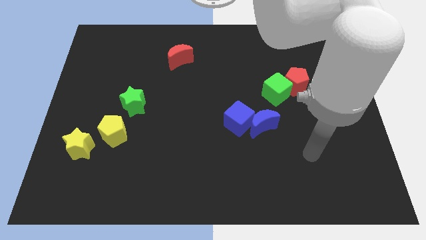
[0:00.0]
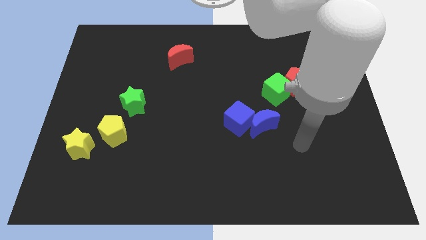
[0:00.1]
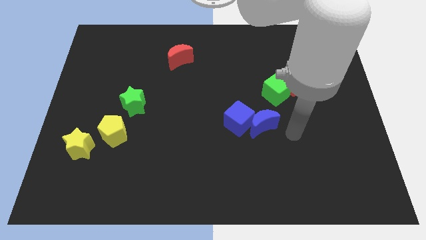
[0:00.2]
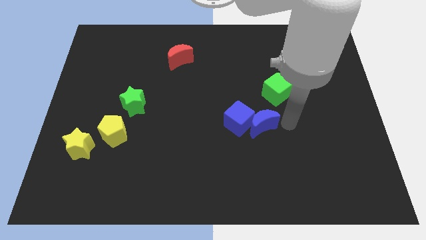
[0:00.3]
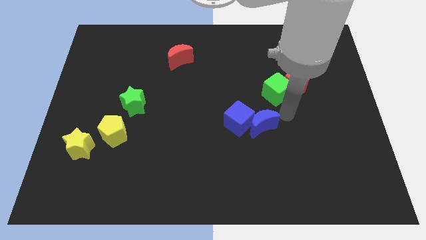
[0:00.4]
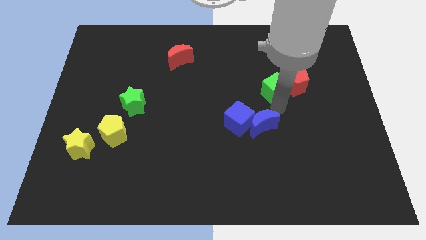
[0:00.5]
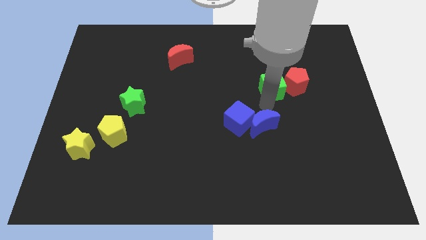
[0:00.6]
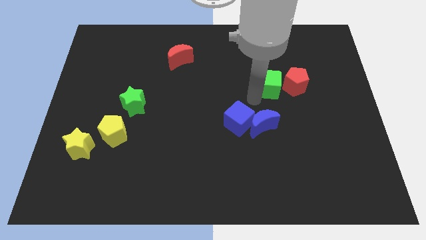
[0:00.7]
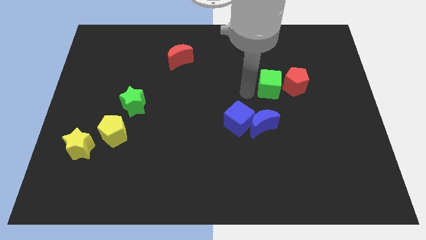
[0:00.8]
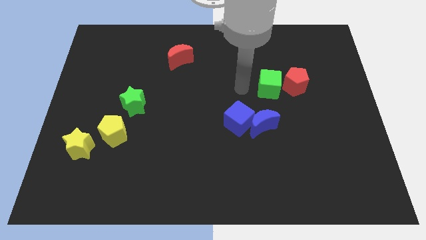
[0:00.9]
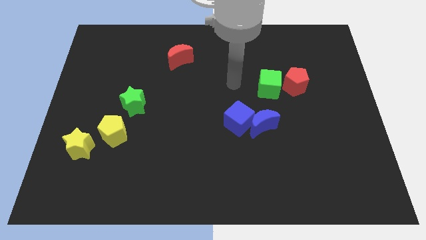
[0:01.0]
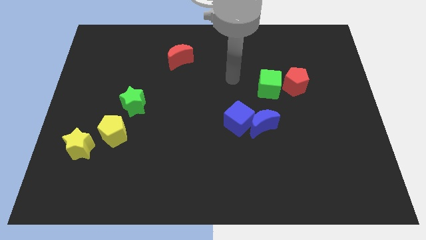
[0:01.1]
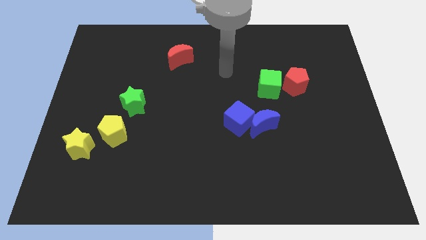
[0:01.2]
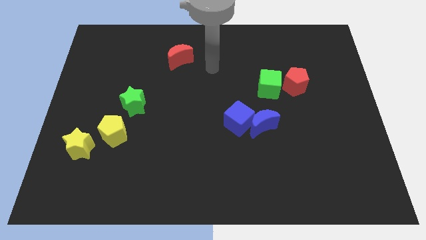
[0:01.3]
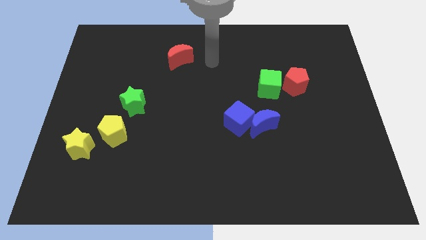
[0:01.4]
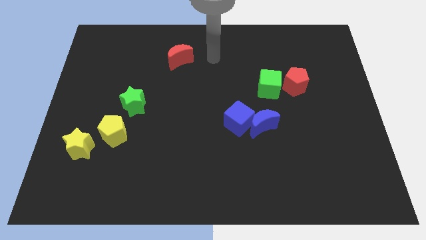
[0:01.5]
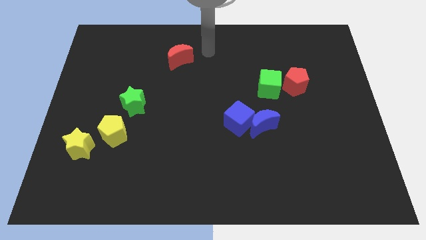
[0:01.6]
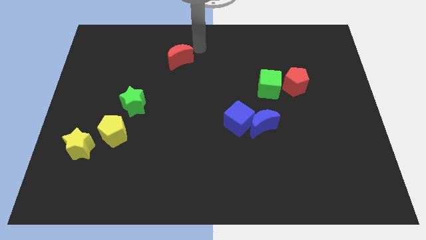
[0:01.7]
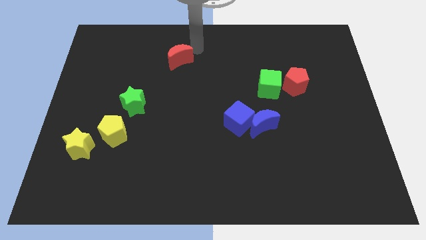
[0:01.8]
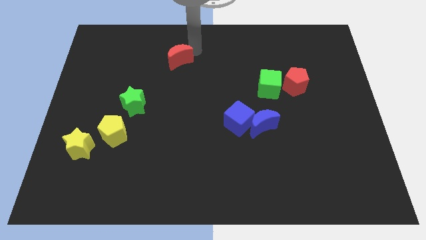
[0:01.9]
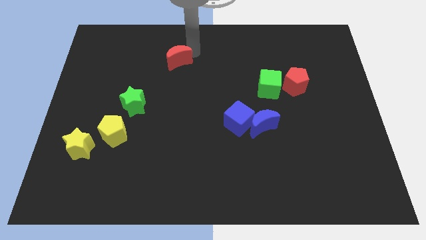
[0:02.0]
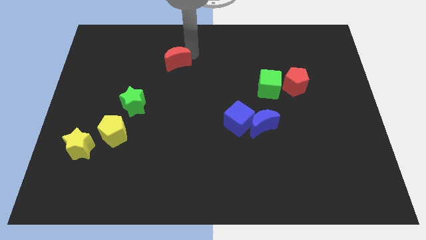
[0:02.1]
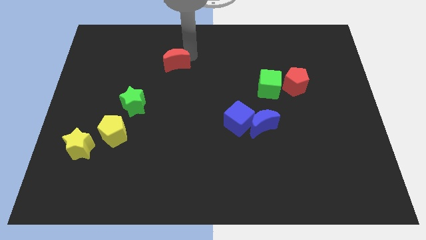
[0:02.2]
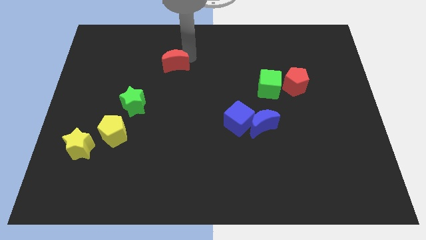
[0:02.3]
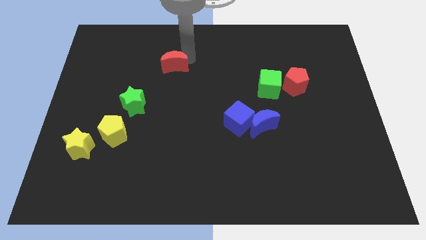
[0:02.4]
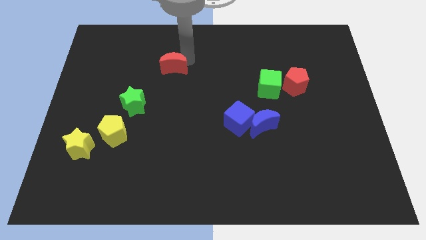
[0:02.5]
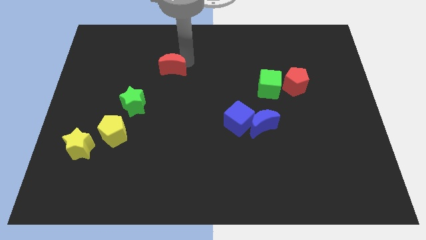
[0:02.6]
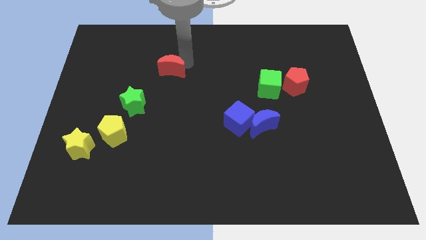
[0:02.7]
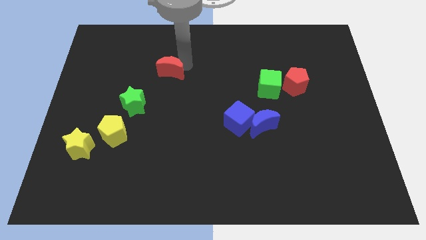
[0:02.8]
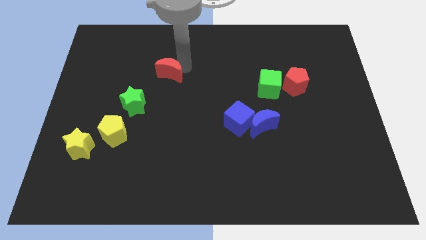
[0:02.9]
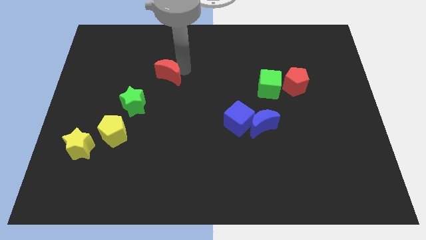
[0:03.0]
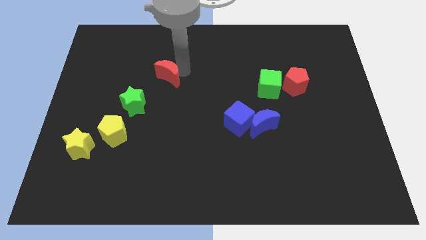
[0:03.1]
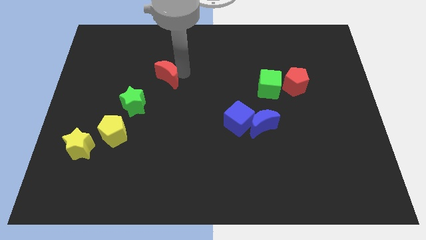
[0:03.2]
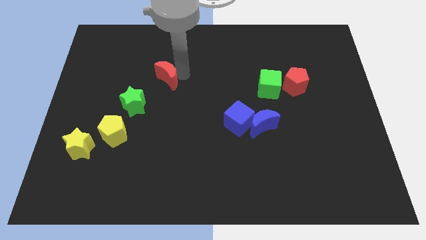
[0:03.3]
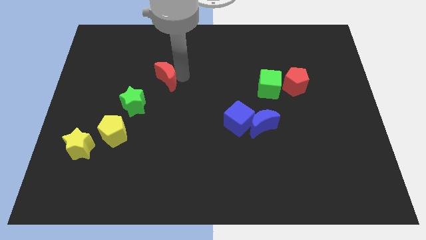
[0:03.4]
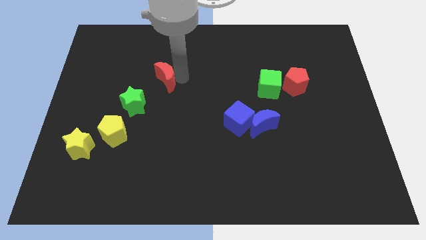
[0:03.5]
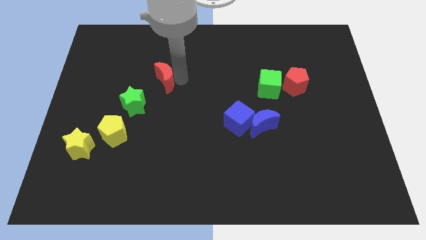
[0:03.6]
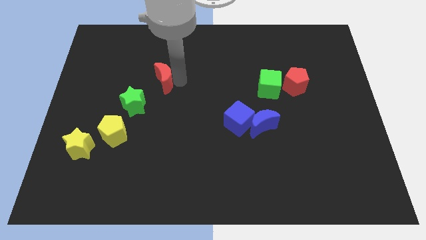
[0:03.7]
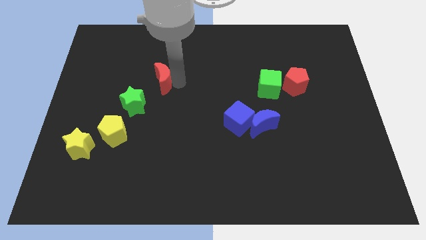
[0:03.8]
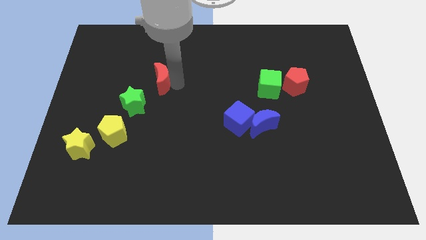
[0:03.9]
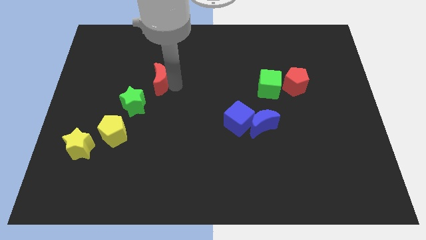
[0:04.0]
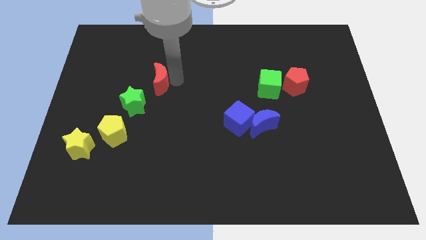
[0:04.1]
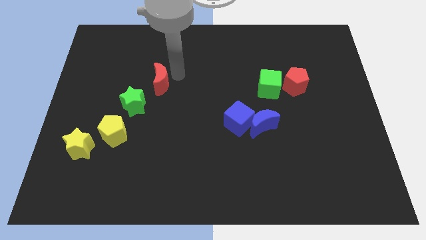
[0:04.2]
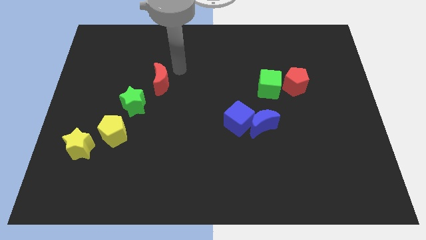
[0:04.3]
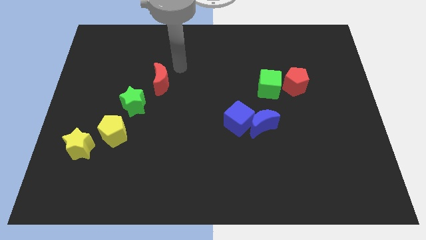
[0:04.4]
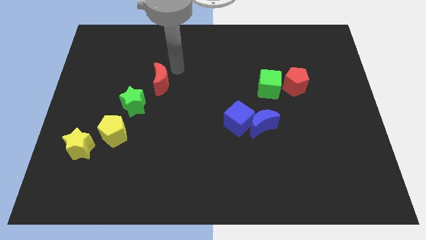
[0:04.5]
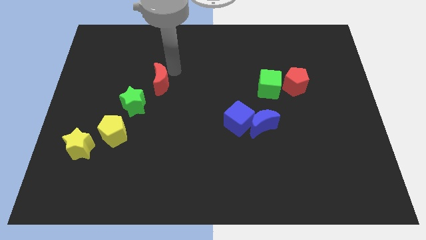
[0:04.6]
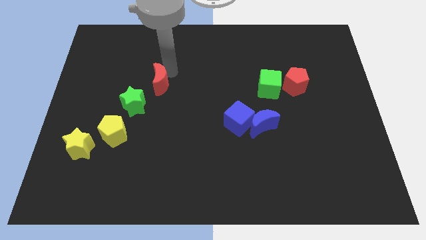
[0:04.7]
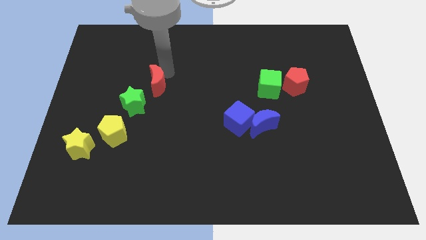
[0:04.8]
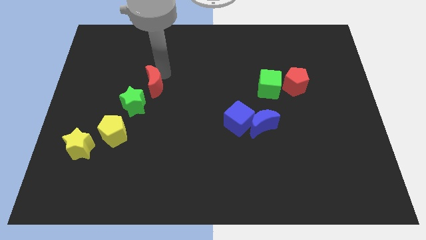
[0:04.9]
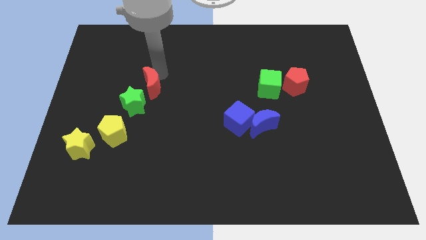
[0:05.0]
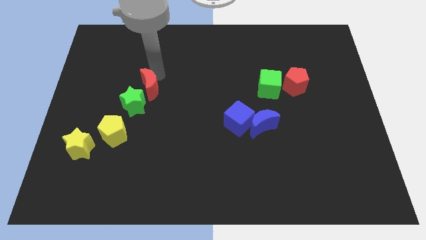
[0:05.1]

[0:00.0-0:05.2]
put the red moon close to the green star

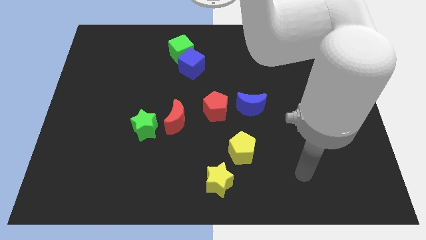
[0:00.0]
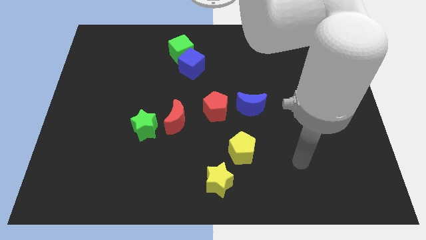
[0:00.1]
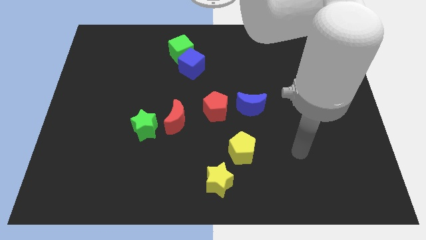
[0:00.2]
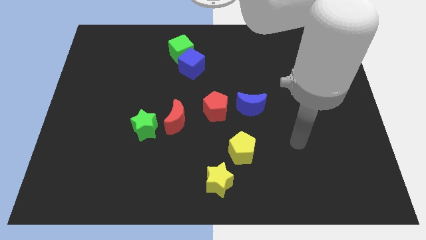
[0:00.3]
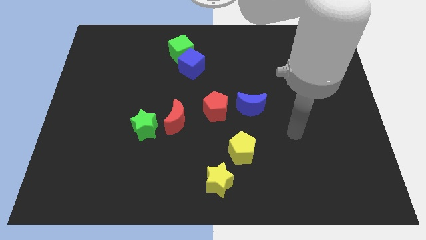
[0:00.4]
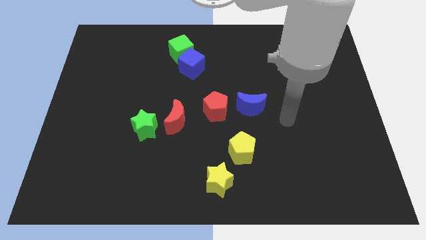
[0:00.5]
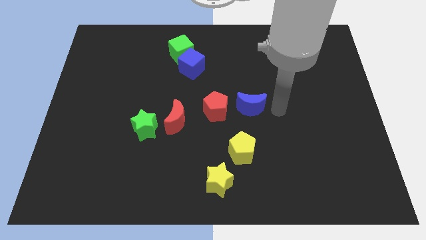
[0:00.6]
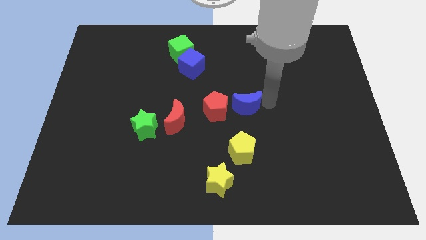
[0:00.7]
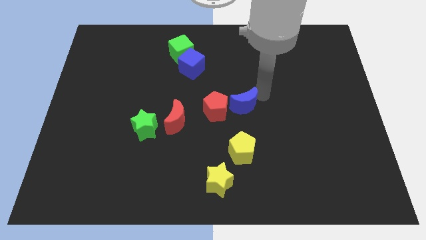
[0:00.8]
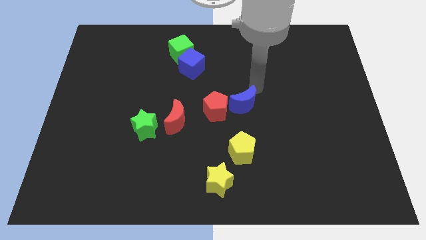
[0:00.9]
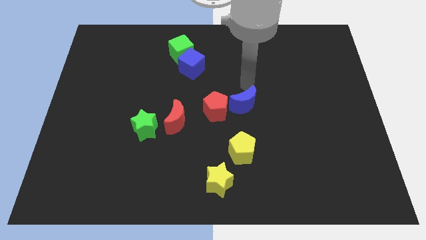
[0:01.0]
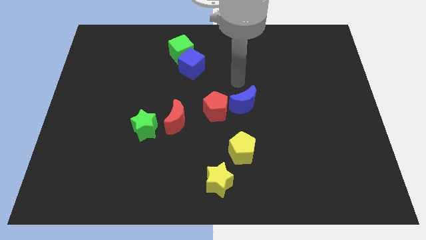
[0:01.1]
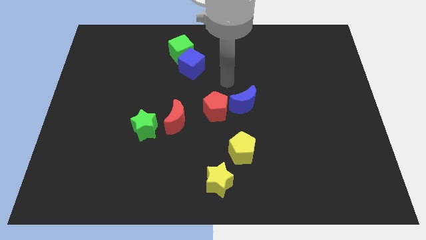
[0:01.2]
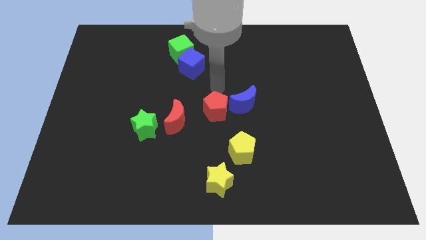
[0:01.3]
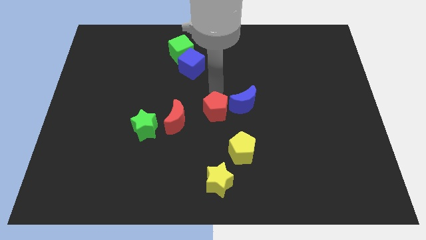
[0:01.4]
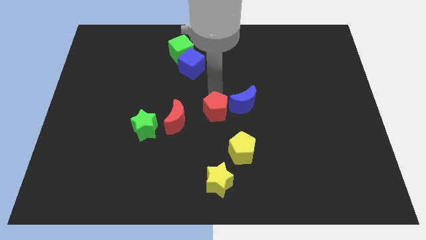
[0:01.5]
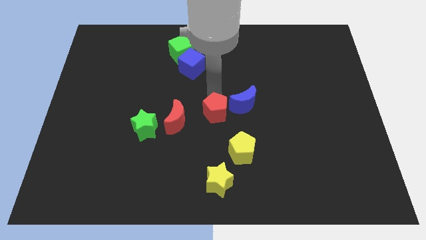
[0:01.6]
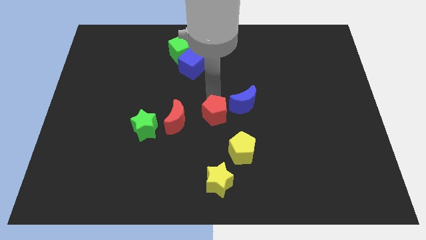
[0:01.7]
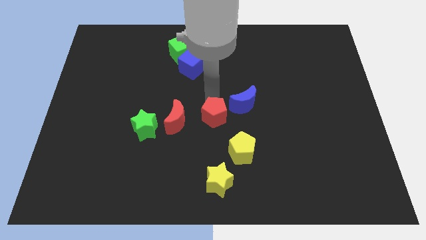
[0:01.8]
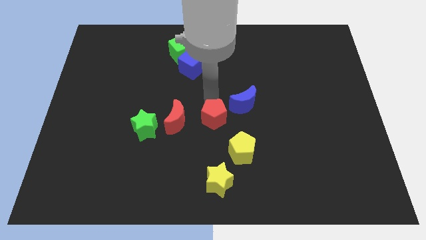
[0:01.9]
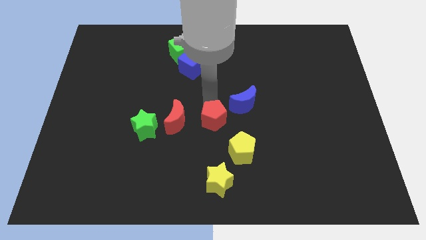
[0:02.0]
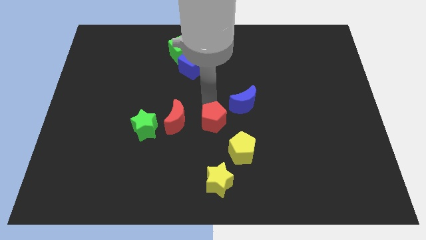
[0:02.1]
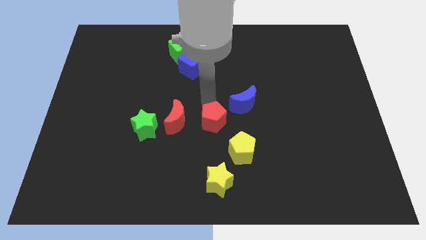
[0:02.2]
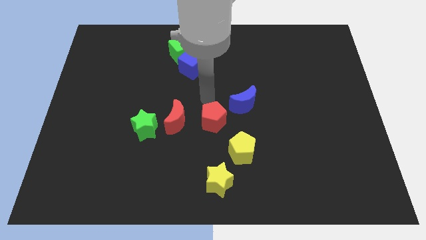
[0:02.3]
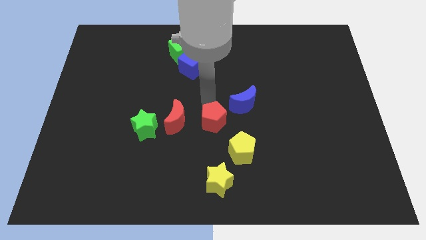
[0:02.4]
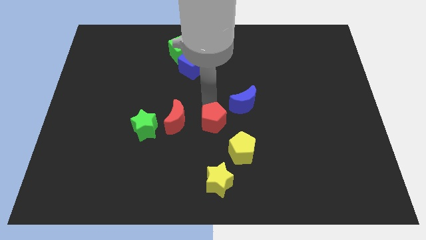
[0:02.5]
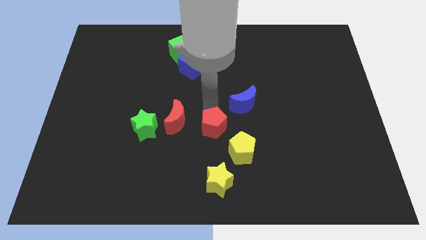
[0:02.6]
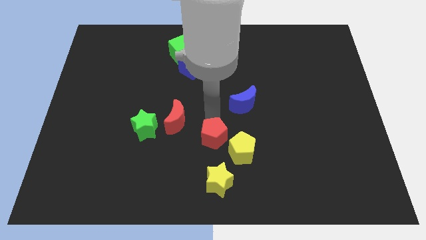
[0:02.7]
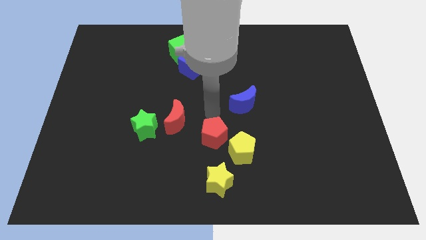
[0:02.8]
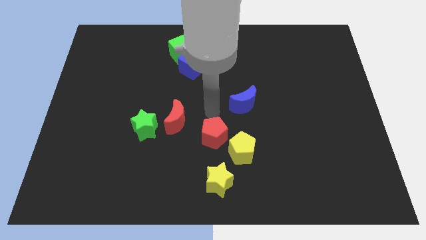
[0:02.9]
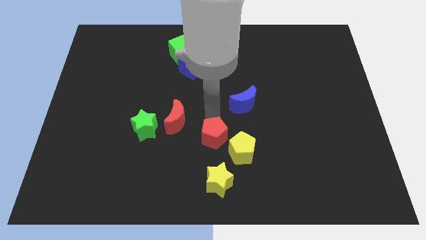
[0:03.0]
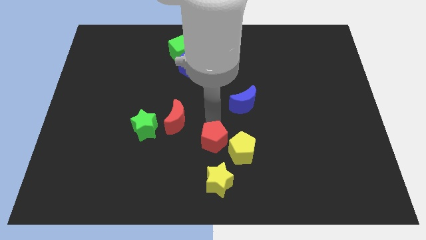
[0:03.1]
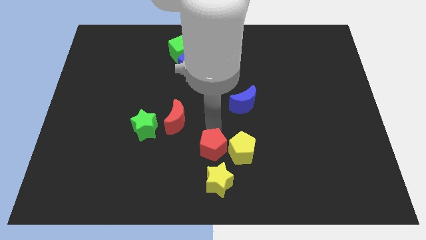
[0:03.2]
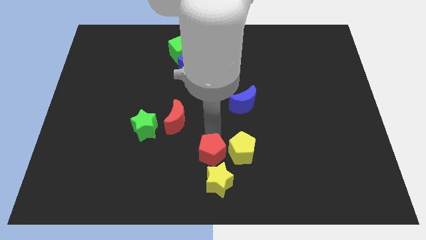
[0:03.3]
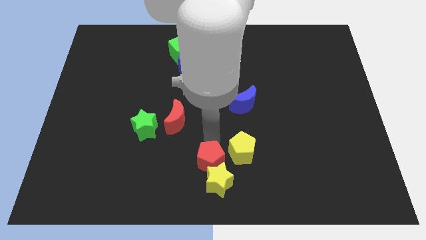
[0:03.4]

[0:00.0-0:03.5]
move the red pentagon next to the yellow star
